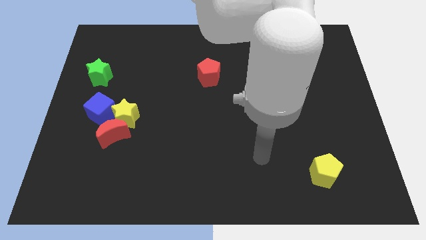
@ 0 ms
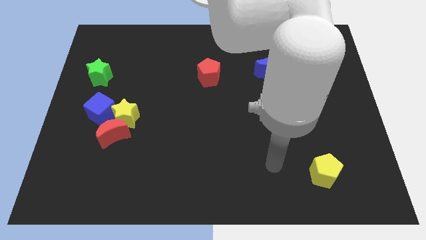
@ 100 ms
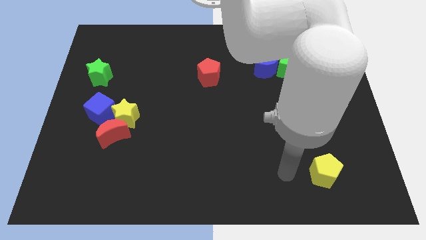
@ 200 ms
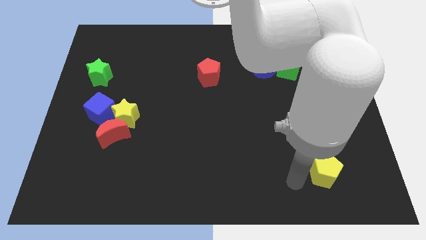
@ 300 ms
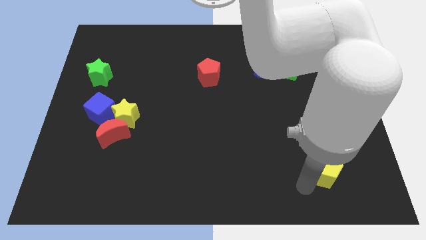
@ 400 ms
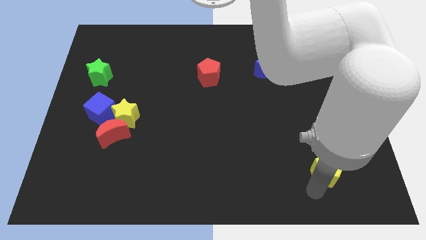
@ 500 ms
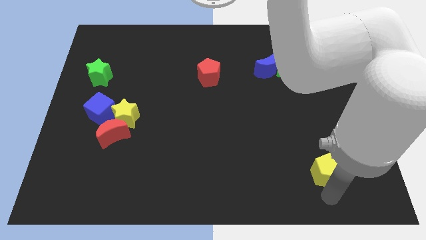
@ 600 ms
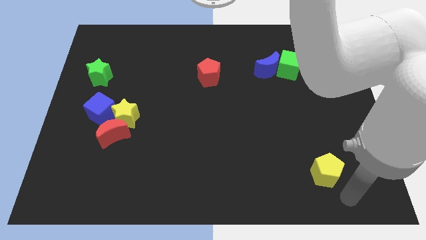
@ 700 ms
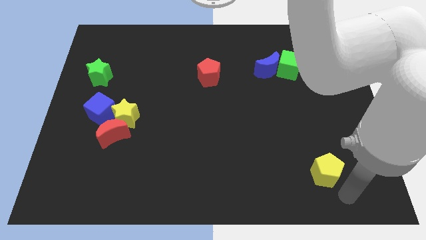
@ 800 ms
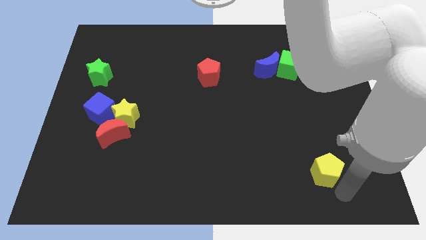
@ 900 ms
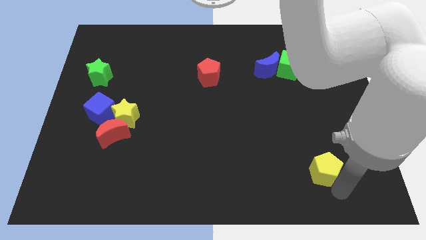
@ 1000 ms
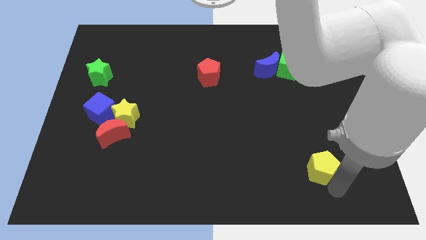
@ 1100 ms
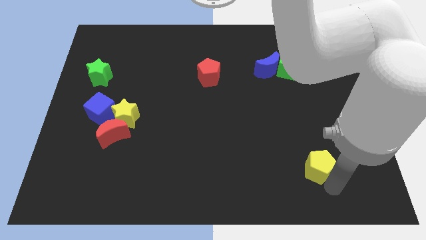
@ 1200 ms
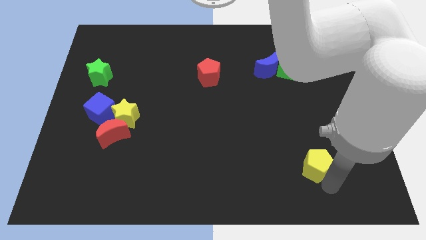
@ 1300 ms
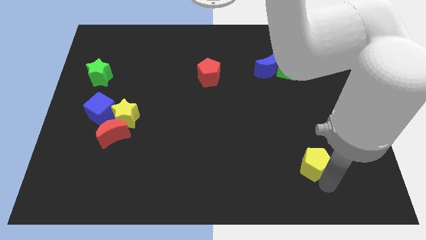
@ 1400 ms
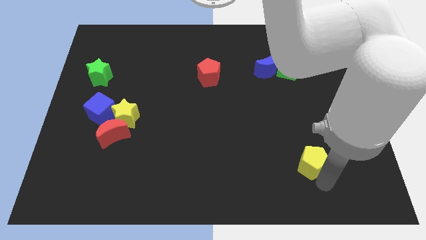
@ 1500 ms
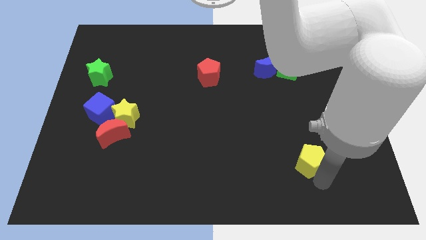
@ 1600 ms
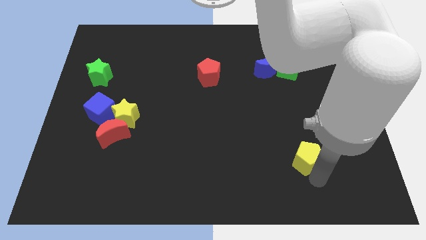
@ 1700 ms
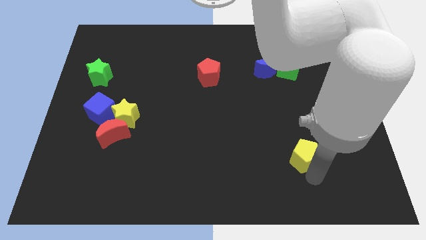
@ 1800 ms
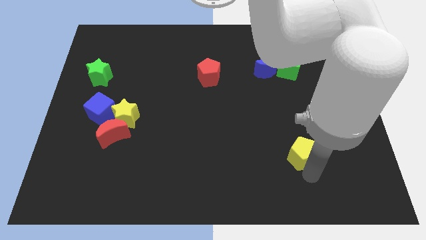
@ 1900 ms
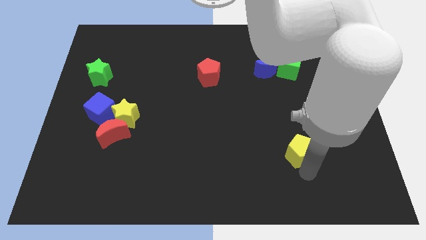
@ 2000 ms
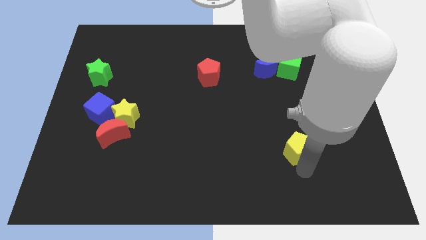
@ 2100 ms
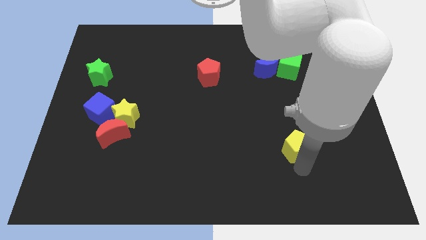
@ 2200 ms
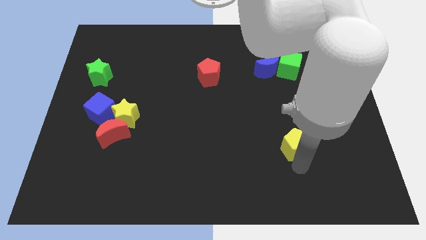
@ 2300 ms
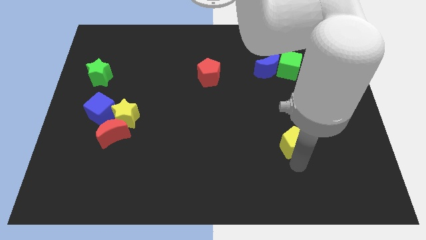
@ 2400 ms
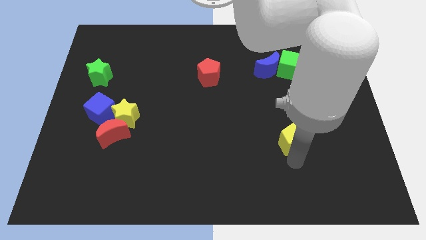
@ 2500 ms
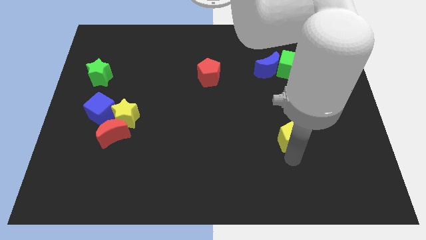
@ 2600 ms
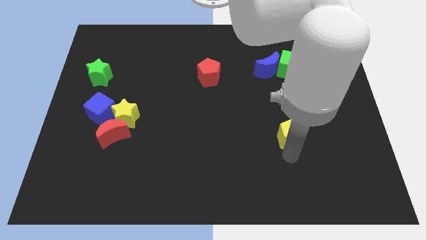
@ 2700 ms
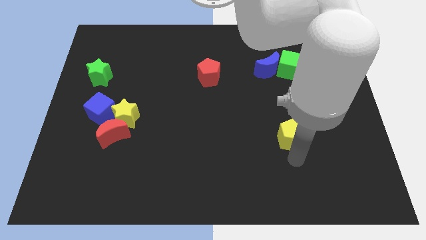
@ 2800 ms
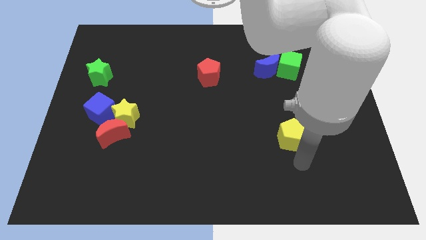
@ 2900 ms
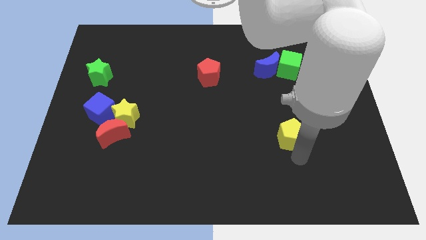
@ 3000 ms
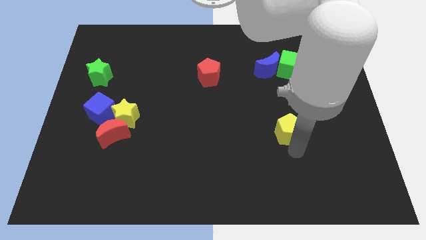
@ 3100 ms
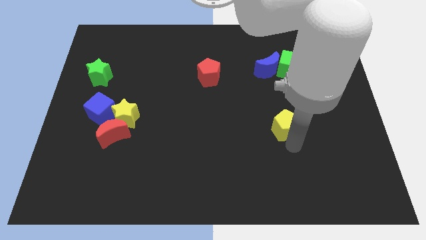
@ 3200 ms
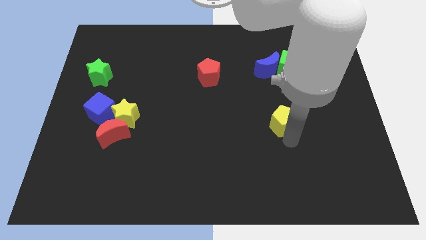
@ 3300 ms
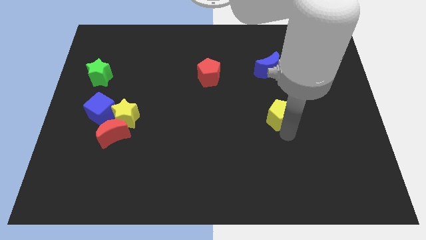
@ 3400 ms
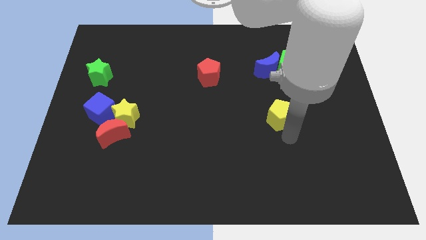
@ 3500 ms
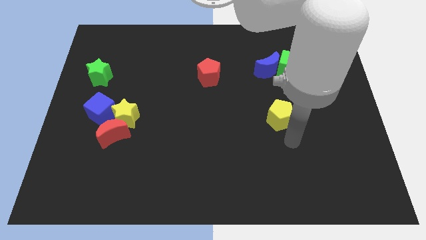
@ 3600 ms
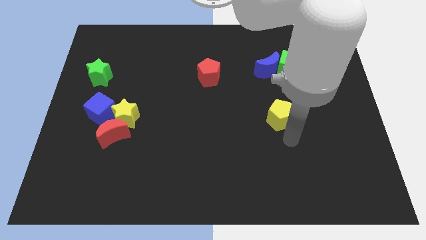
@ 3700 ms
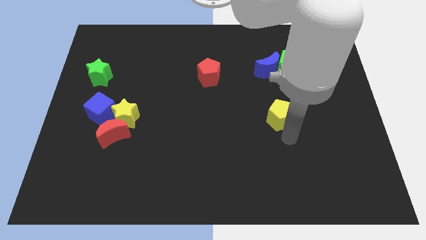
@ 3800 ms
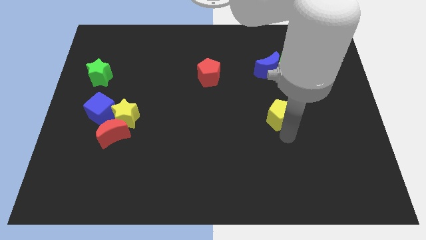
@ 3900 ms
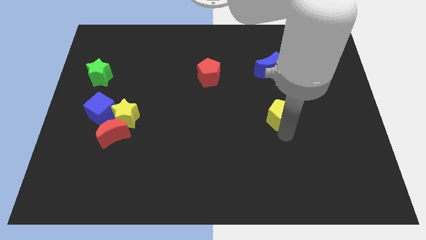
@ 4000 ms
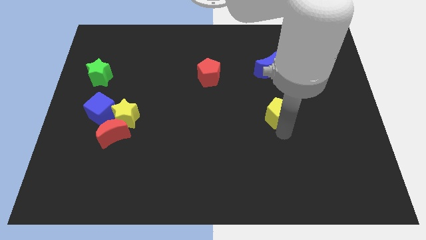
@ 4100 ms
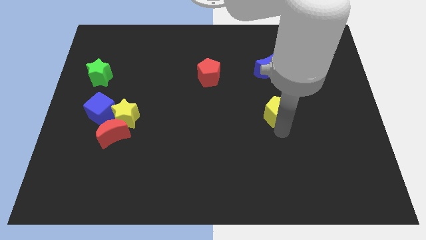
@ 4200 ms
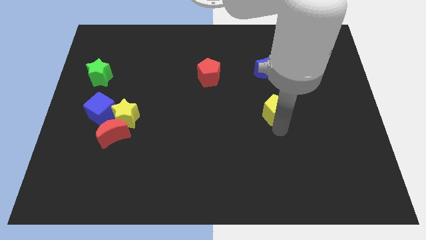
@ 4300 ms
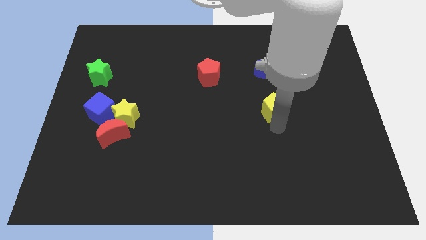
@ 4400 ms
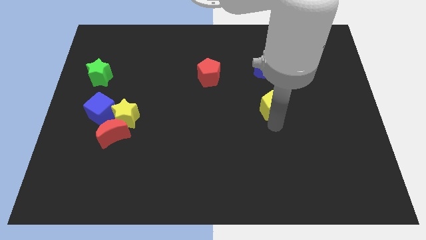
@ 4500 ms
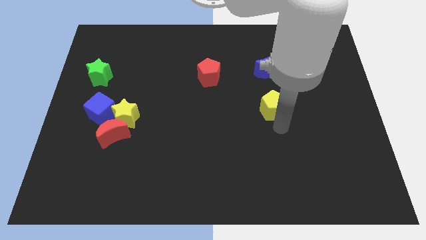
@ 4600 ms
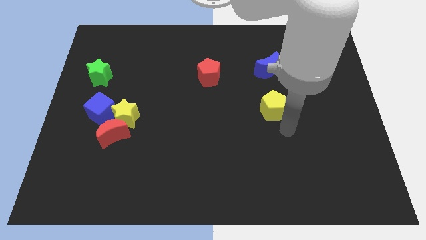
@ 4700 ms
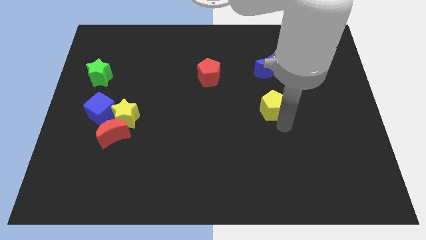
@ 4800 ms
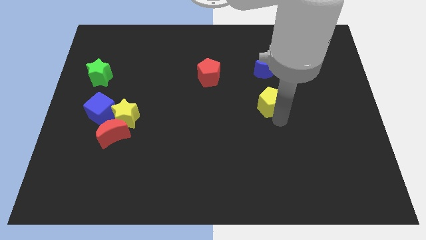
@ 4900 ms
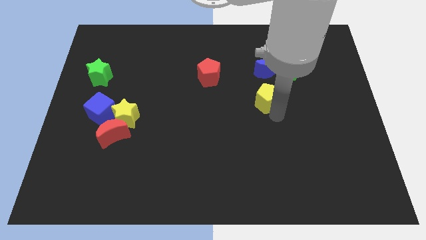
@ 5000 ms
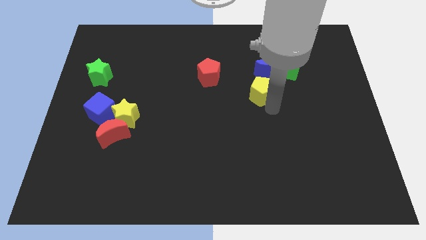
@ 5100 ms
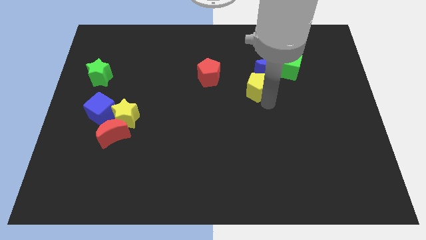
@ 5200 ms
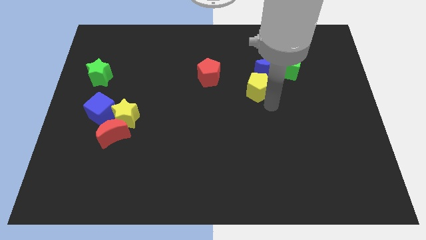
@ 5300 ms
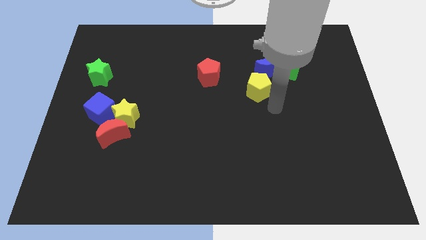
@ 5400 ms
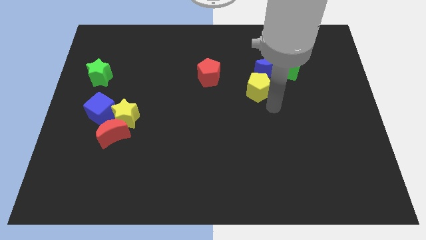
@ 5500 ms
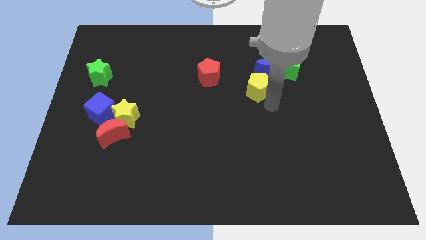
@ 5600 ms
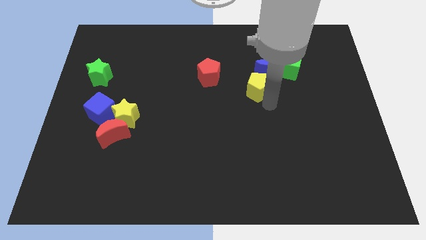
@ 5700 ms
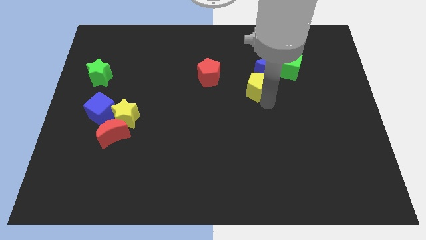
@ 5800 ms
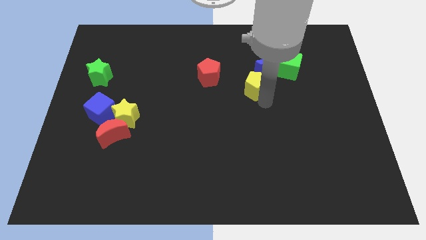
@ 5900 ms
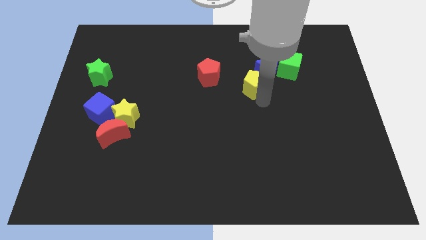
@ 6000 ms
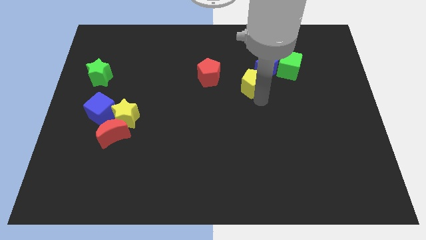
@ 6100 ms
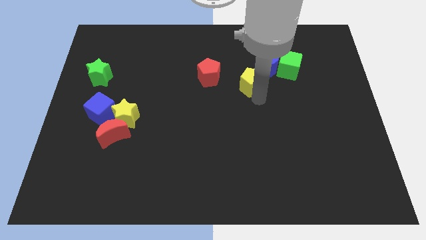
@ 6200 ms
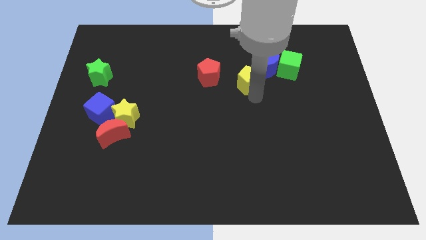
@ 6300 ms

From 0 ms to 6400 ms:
move the yellow pentagon to the left side of the blue moon

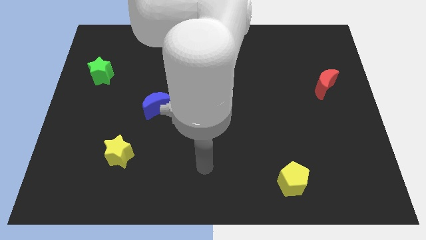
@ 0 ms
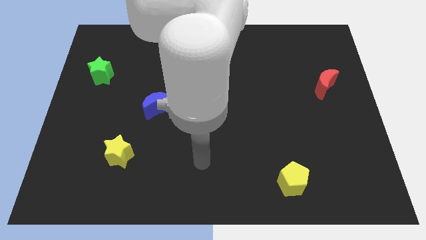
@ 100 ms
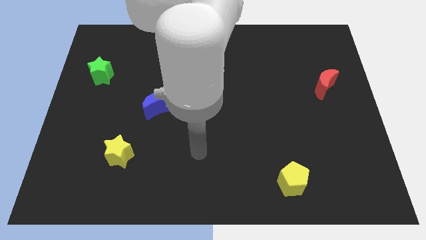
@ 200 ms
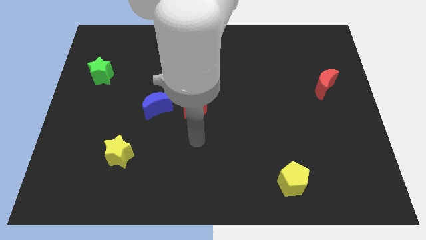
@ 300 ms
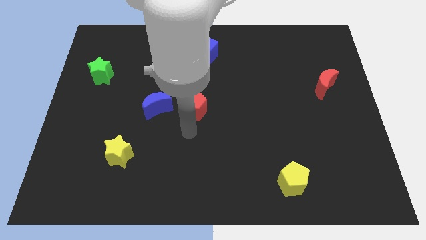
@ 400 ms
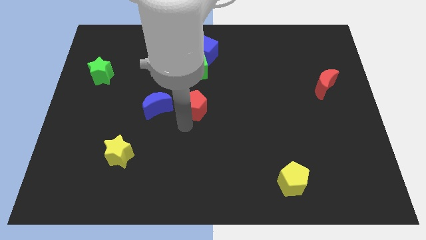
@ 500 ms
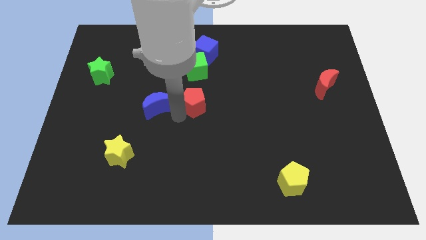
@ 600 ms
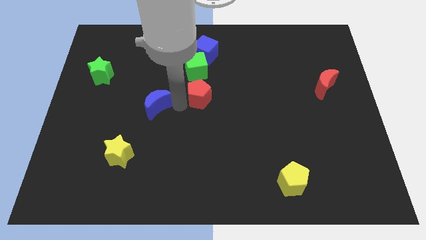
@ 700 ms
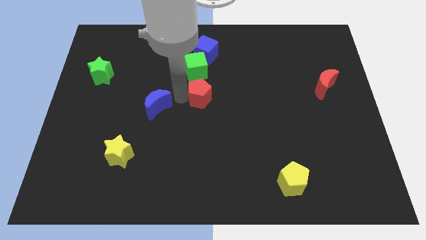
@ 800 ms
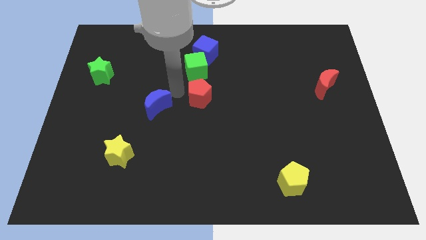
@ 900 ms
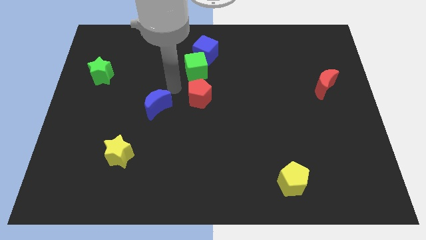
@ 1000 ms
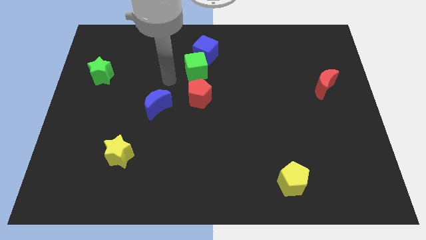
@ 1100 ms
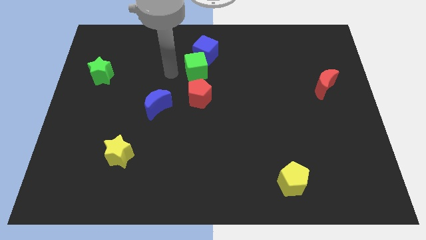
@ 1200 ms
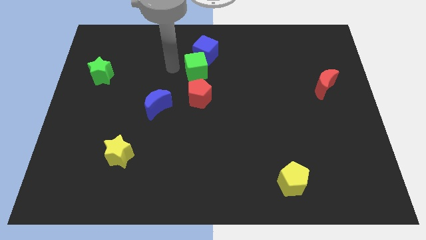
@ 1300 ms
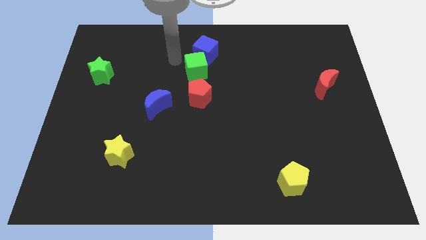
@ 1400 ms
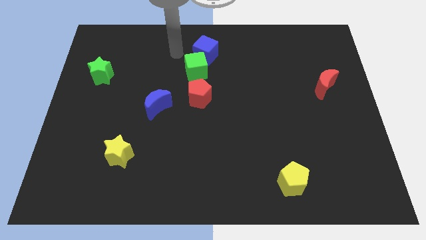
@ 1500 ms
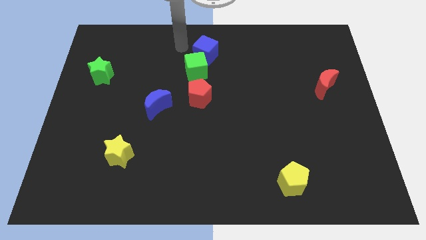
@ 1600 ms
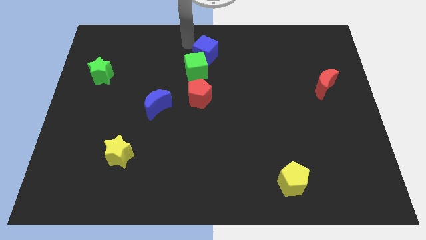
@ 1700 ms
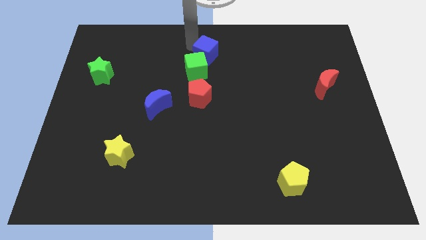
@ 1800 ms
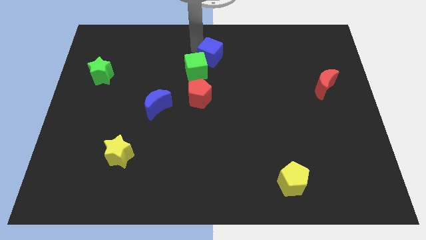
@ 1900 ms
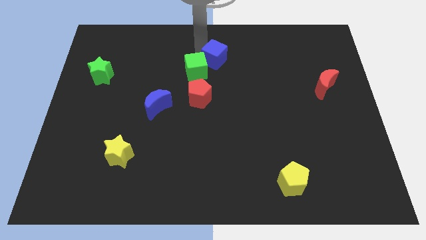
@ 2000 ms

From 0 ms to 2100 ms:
move the blue cube just right of the green cube
